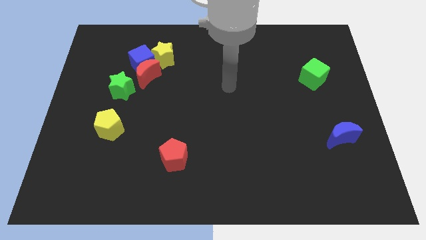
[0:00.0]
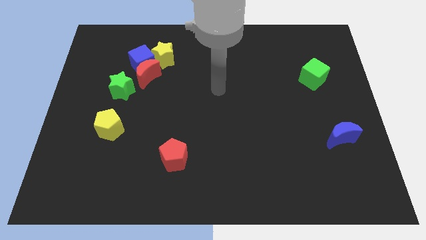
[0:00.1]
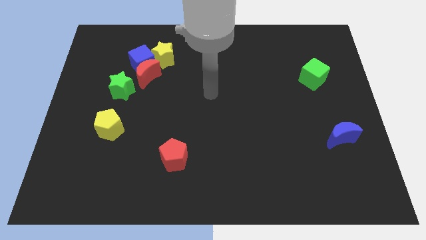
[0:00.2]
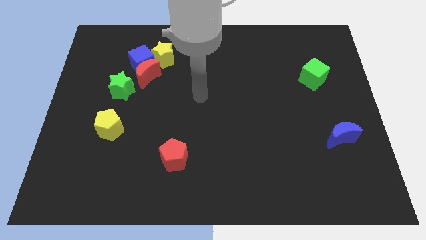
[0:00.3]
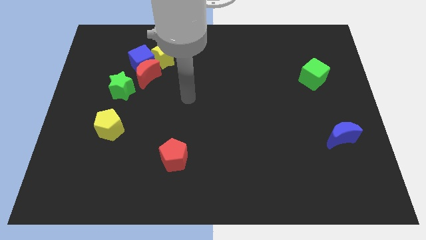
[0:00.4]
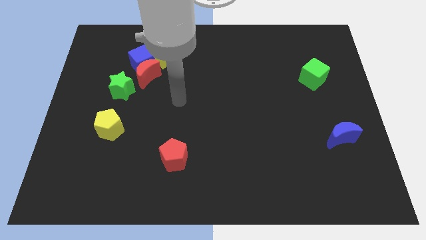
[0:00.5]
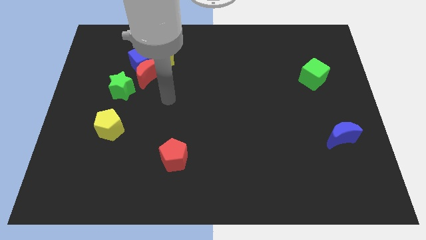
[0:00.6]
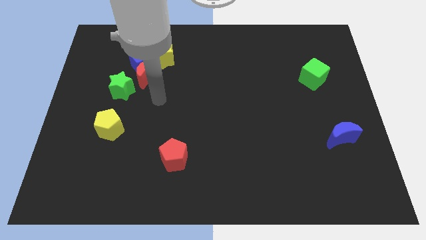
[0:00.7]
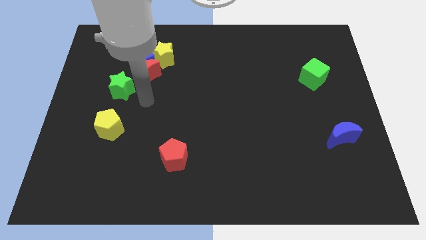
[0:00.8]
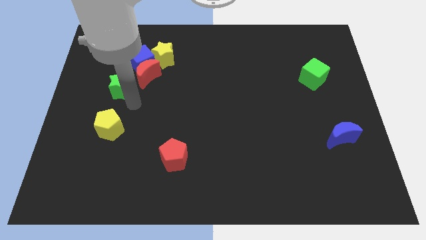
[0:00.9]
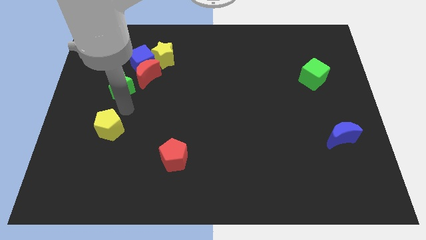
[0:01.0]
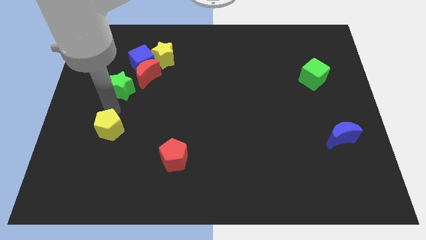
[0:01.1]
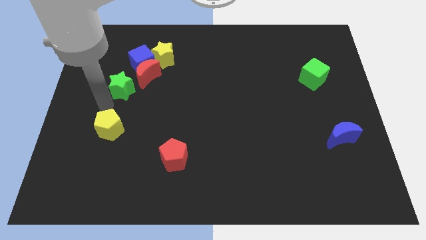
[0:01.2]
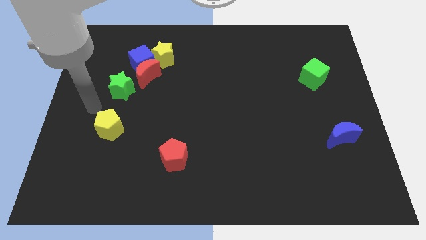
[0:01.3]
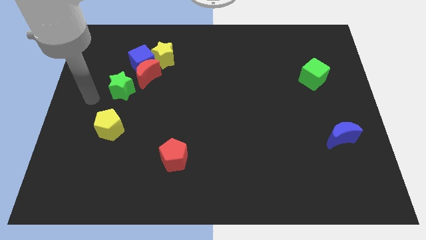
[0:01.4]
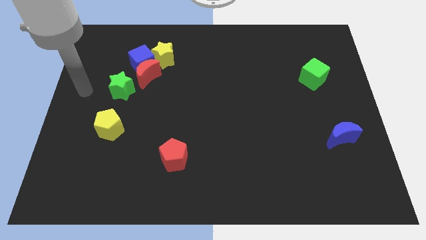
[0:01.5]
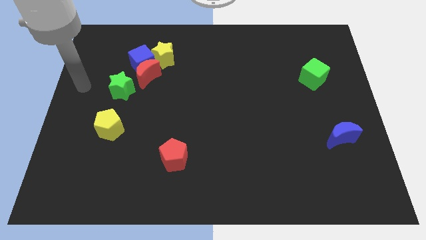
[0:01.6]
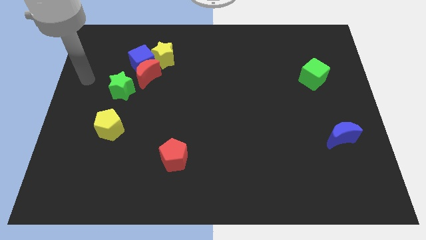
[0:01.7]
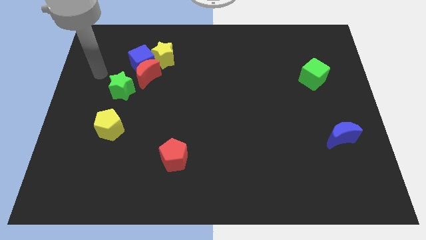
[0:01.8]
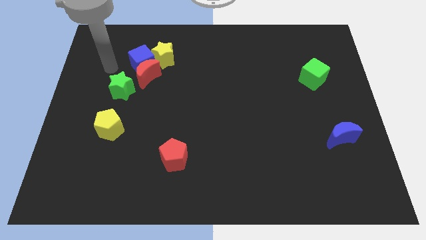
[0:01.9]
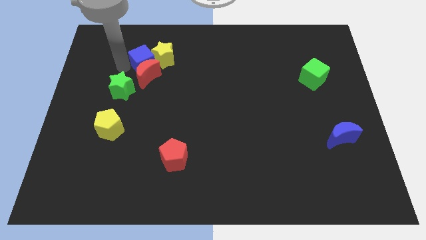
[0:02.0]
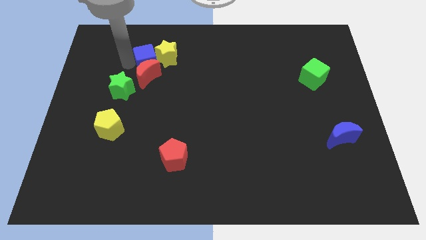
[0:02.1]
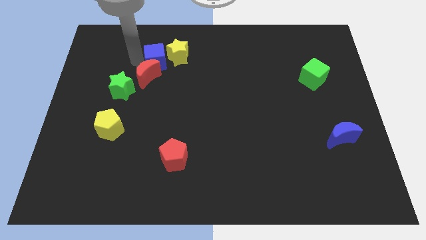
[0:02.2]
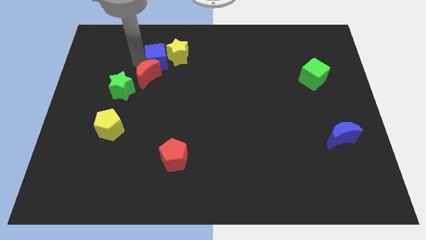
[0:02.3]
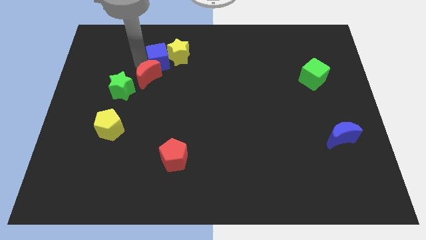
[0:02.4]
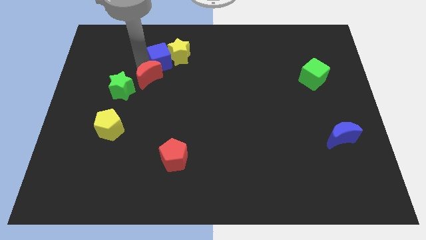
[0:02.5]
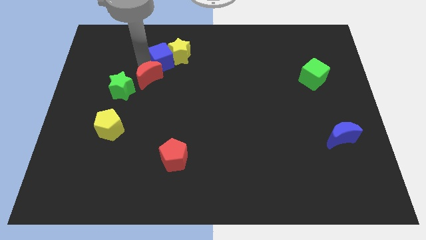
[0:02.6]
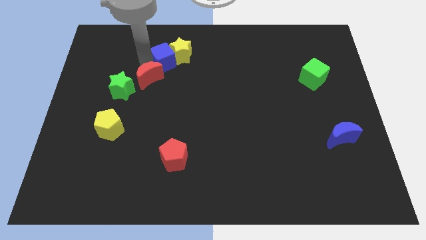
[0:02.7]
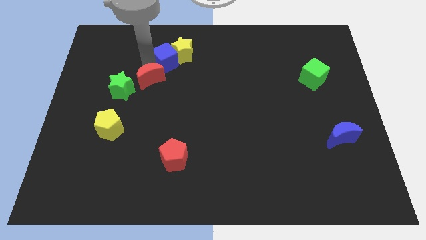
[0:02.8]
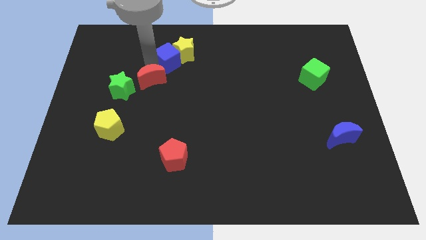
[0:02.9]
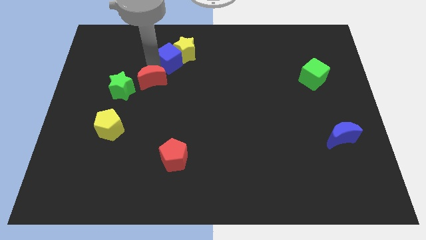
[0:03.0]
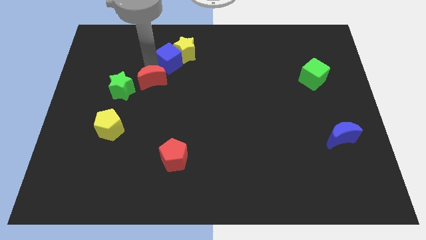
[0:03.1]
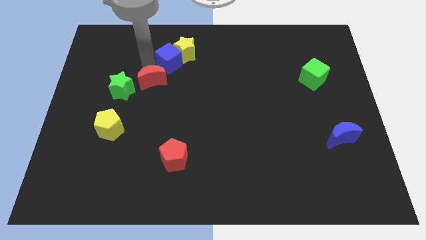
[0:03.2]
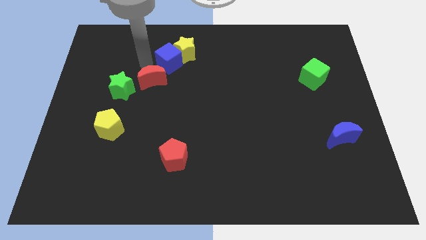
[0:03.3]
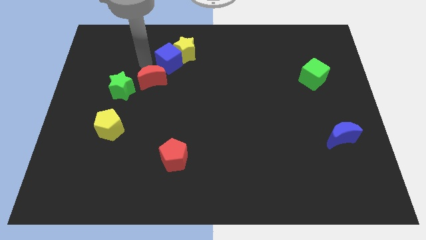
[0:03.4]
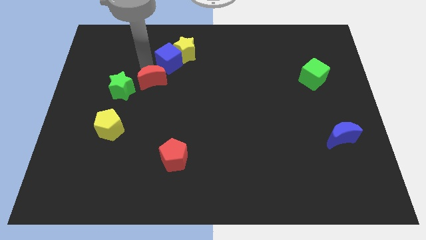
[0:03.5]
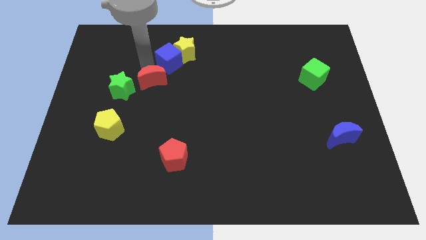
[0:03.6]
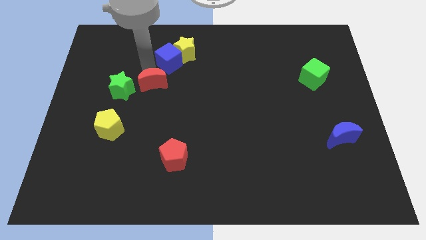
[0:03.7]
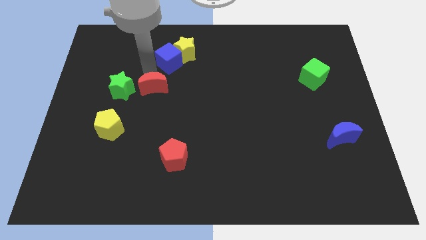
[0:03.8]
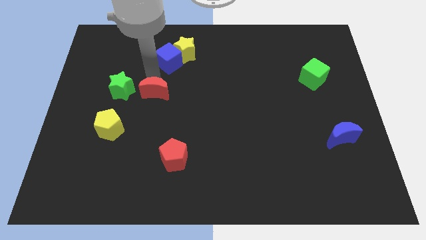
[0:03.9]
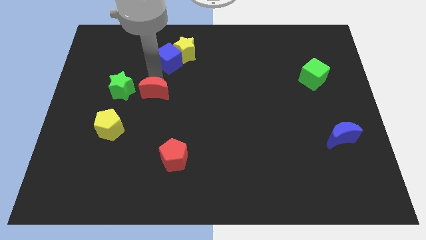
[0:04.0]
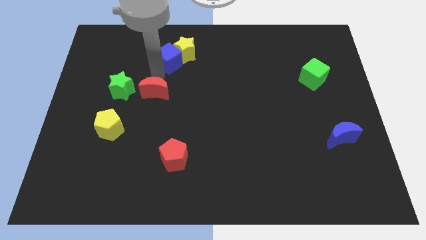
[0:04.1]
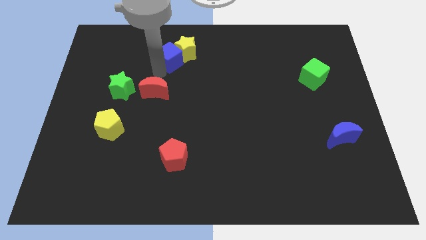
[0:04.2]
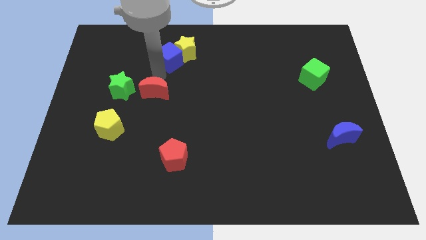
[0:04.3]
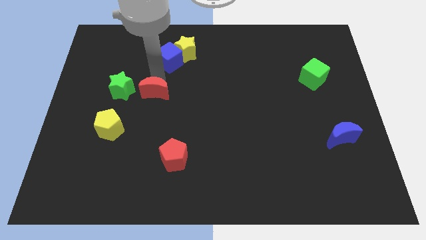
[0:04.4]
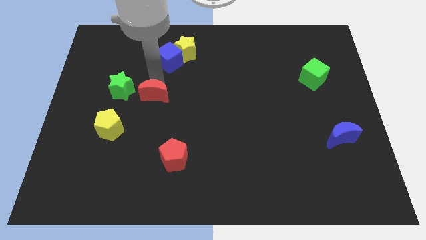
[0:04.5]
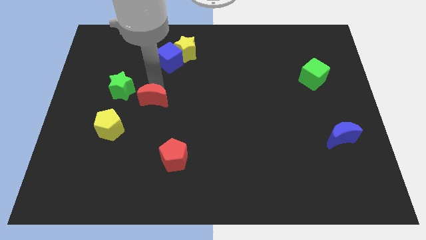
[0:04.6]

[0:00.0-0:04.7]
pull the red moon apart from the blue cube, green star, and yellow star

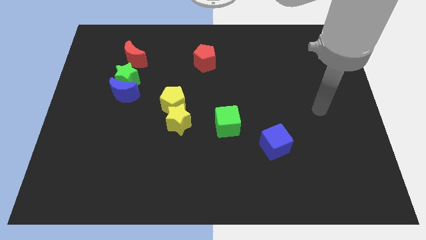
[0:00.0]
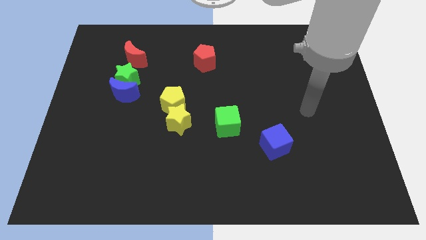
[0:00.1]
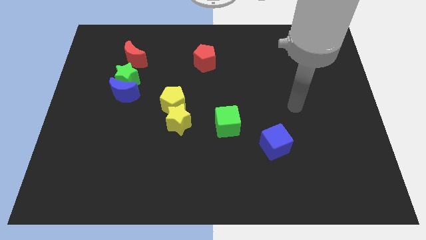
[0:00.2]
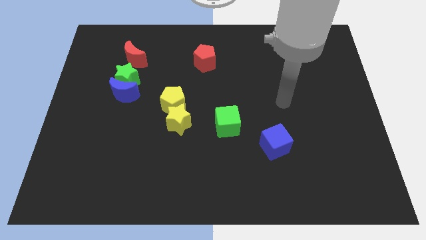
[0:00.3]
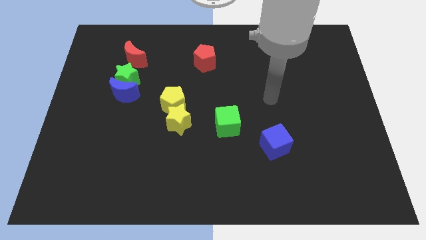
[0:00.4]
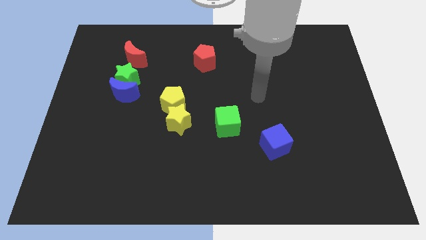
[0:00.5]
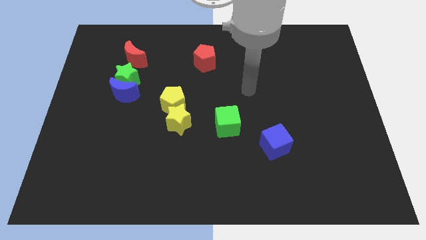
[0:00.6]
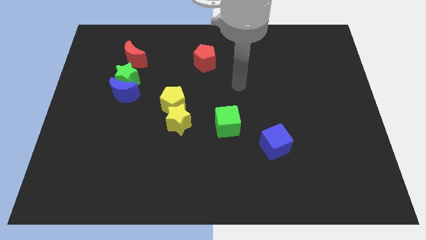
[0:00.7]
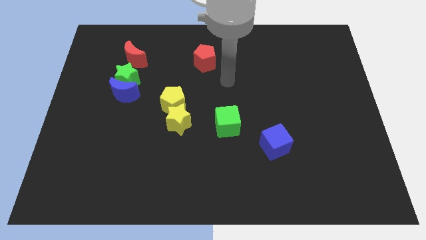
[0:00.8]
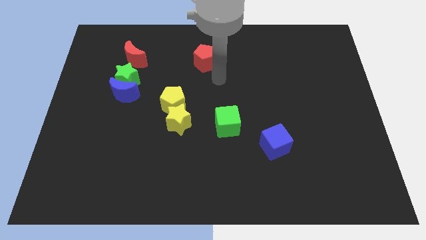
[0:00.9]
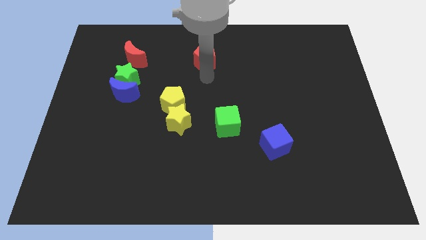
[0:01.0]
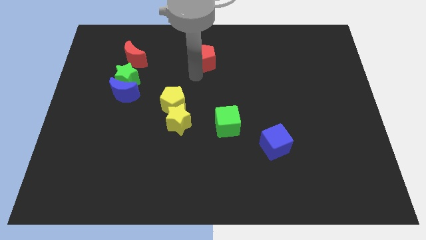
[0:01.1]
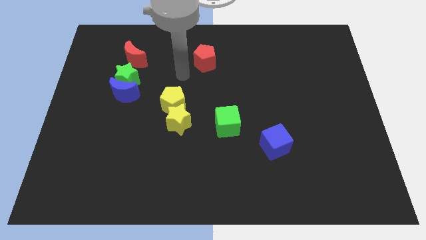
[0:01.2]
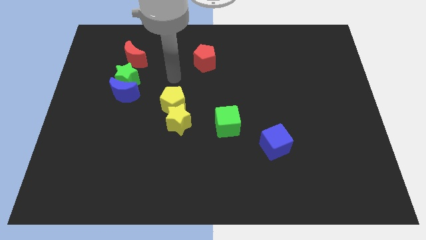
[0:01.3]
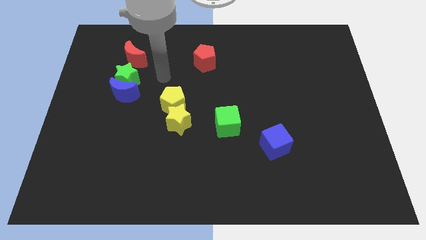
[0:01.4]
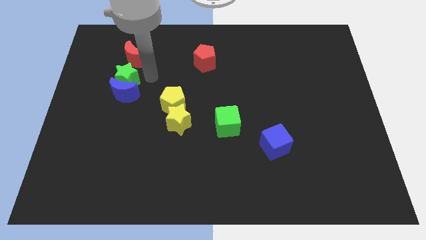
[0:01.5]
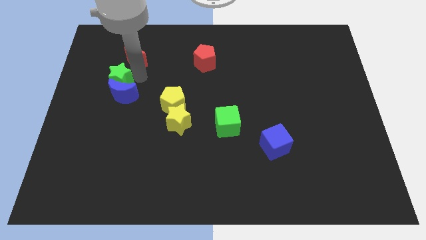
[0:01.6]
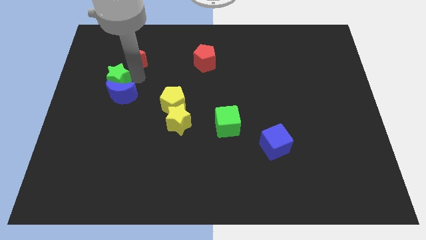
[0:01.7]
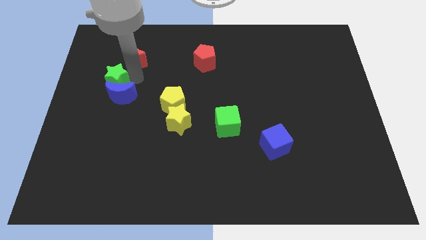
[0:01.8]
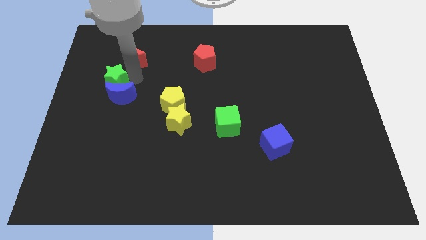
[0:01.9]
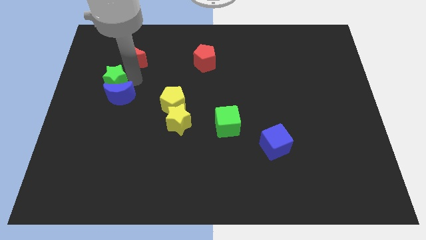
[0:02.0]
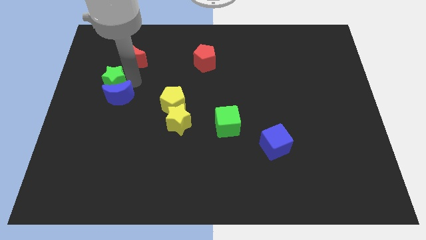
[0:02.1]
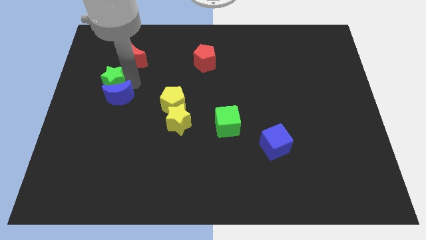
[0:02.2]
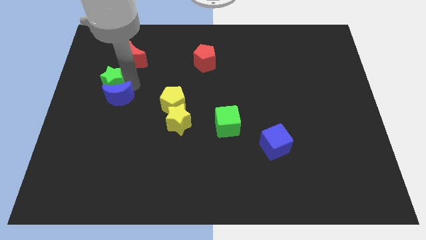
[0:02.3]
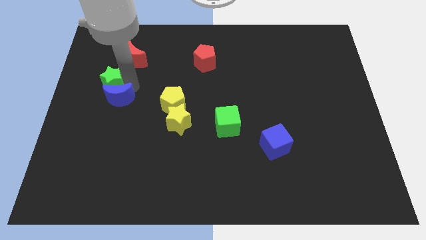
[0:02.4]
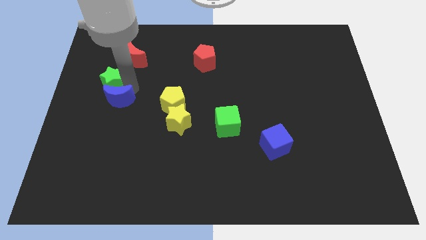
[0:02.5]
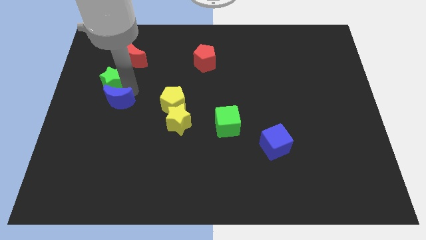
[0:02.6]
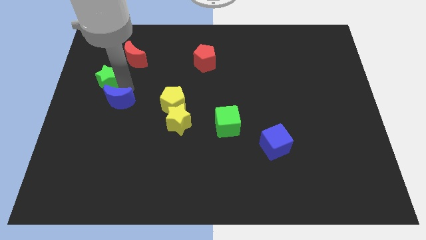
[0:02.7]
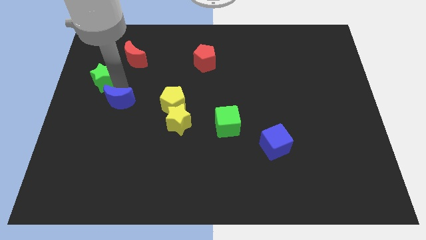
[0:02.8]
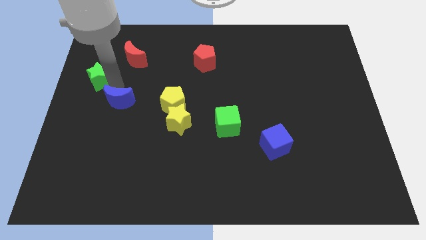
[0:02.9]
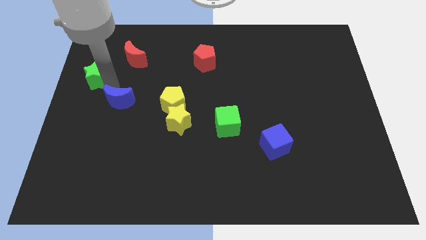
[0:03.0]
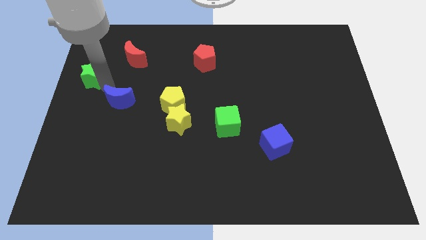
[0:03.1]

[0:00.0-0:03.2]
move the blue moon away from the green star

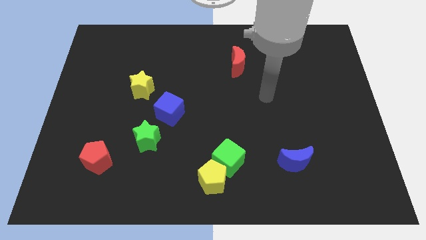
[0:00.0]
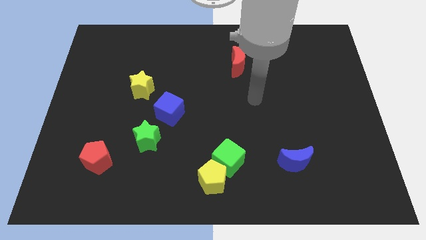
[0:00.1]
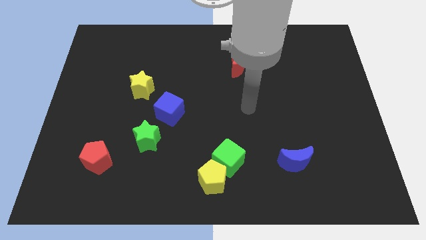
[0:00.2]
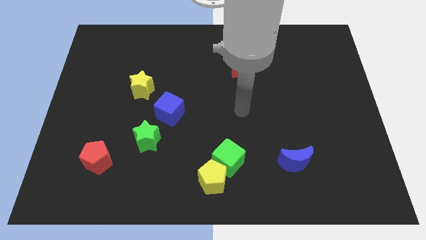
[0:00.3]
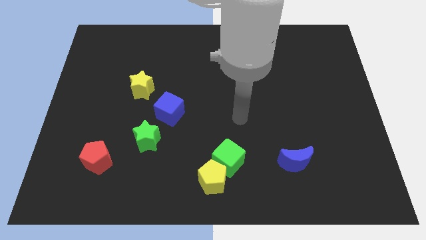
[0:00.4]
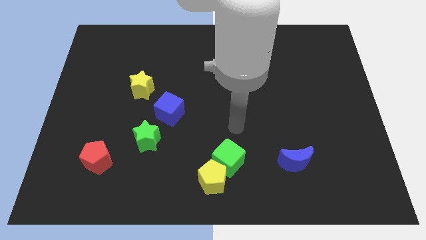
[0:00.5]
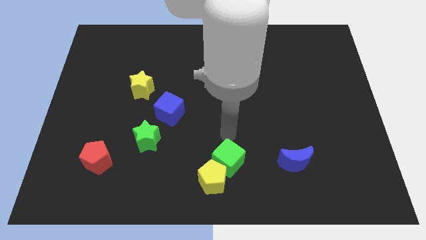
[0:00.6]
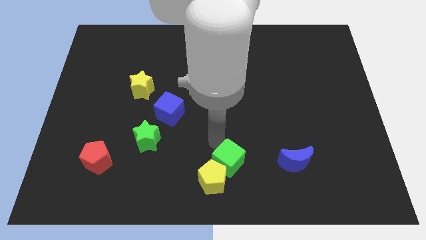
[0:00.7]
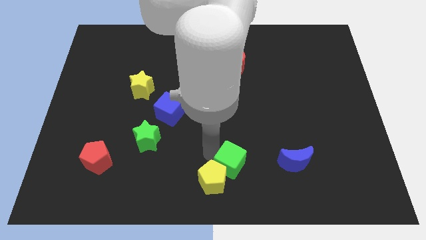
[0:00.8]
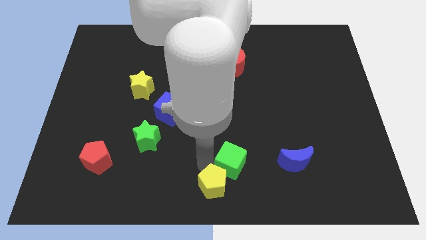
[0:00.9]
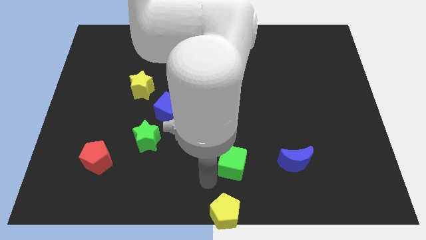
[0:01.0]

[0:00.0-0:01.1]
move the green cube away from the yellow pentagon

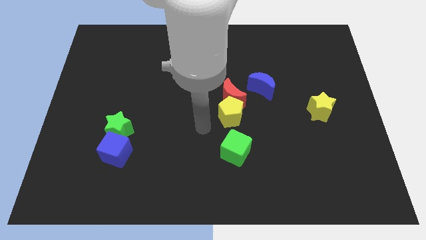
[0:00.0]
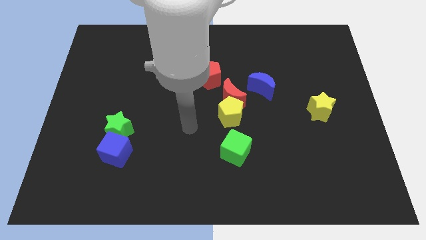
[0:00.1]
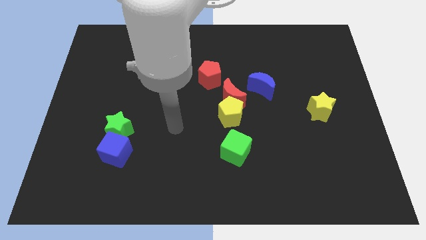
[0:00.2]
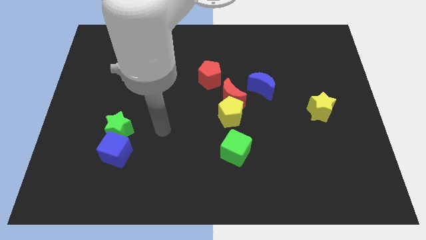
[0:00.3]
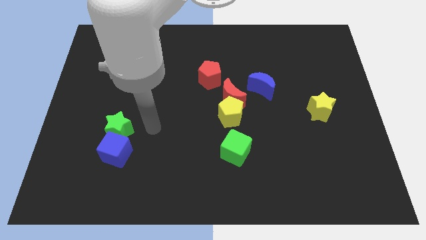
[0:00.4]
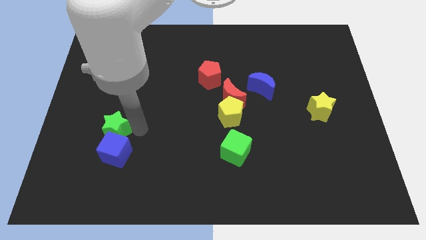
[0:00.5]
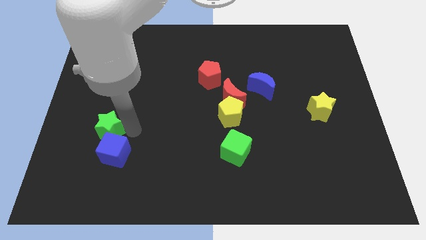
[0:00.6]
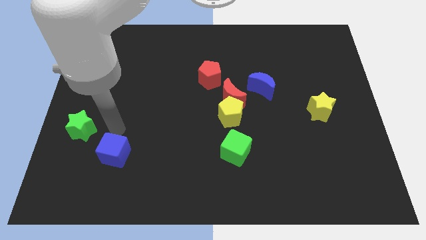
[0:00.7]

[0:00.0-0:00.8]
separate the blue cube from the green star
